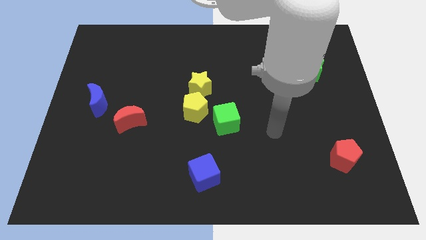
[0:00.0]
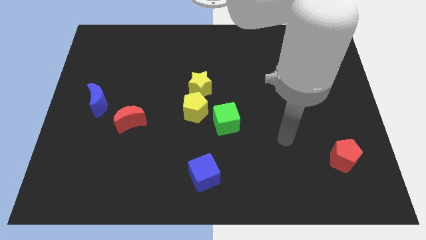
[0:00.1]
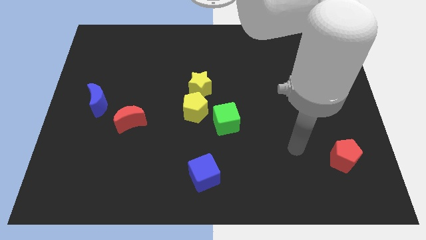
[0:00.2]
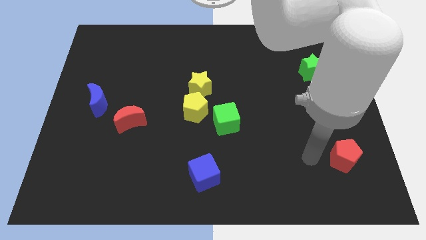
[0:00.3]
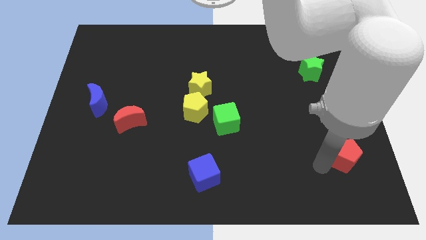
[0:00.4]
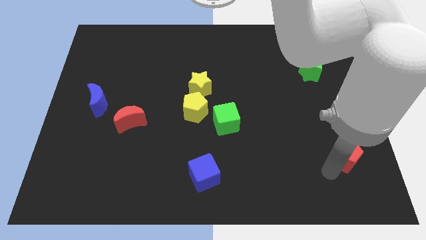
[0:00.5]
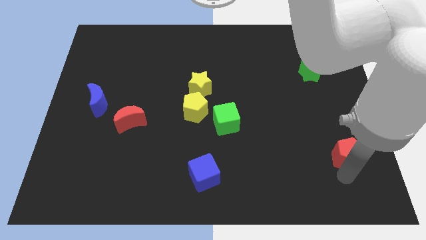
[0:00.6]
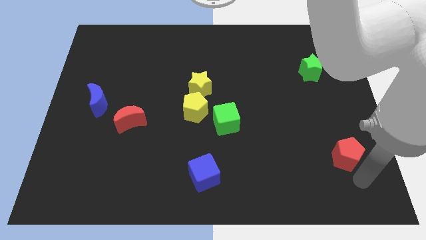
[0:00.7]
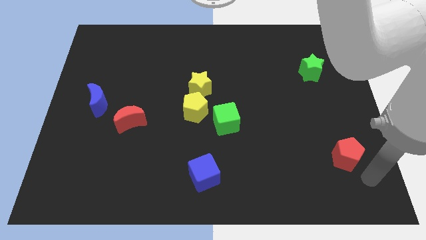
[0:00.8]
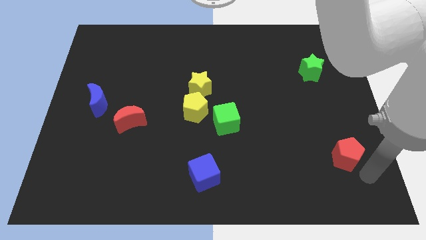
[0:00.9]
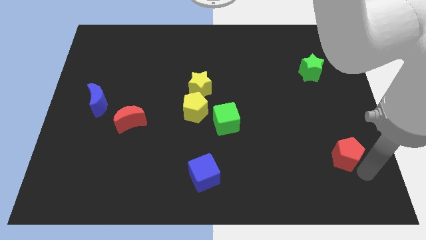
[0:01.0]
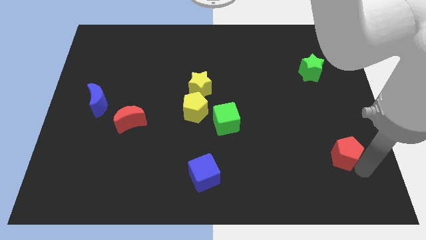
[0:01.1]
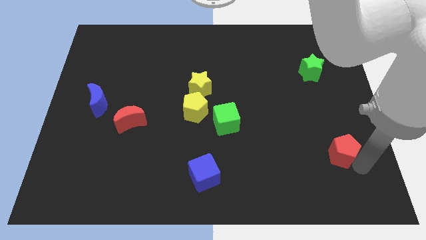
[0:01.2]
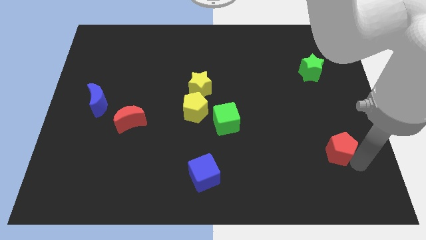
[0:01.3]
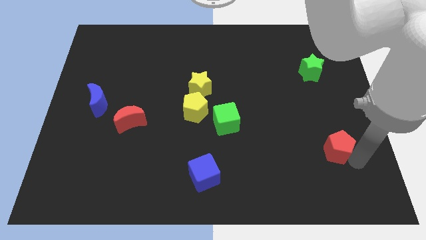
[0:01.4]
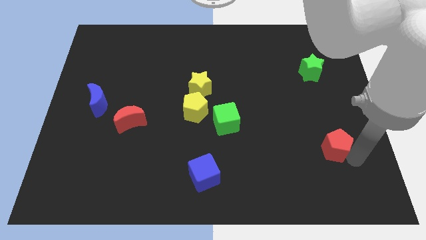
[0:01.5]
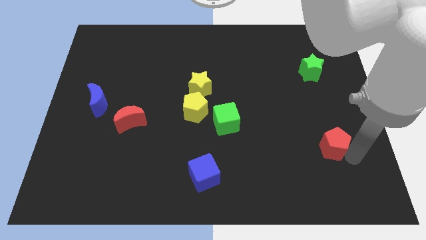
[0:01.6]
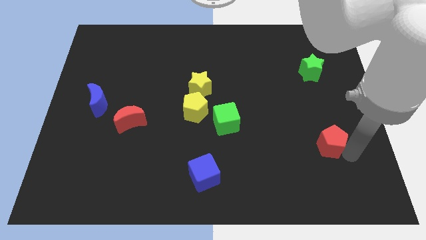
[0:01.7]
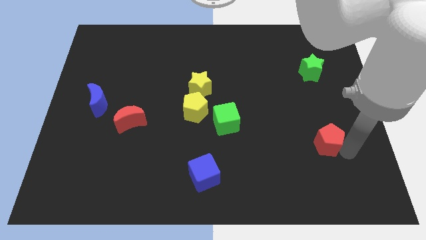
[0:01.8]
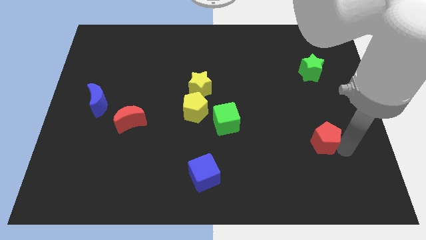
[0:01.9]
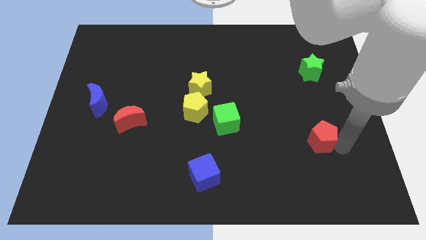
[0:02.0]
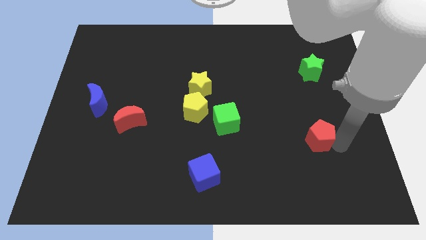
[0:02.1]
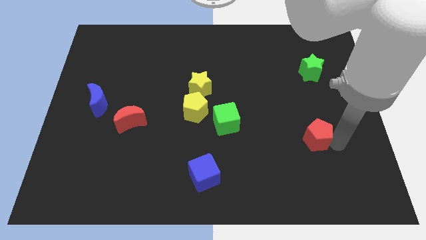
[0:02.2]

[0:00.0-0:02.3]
push the red pentagon slightly diagonally upwards and to the left

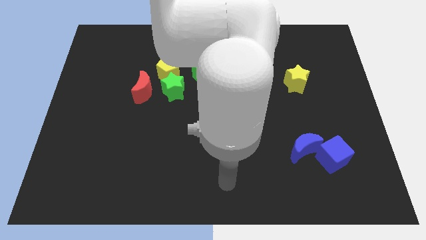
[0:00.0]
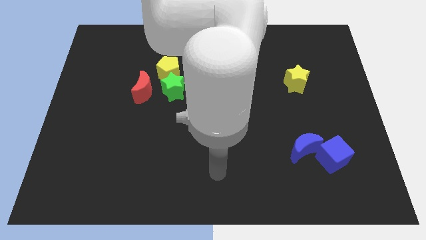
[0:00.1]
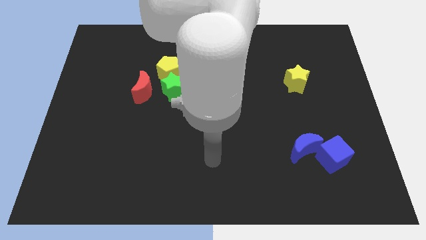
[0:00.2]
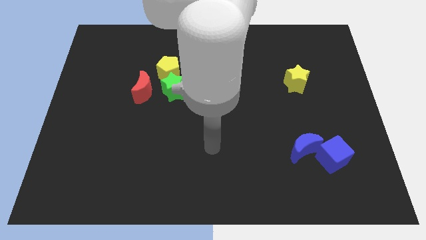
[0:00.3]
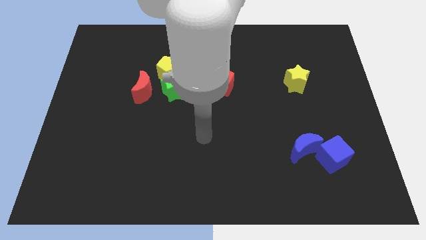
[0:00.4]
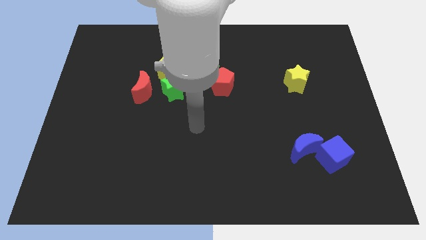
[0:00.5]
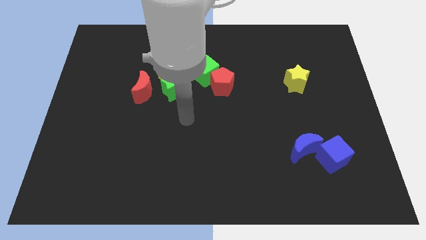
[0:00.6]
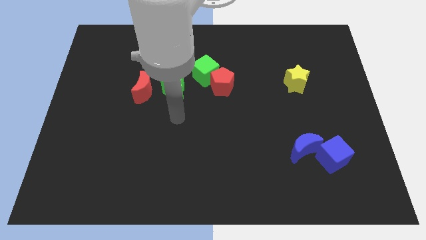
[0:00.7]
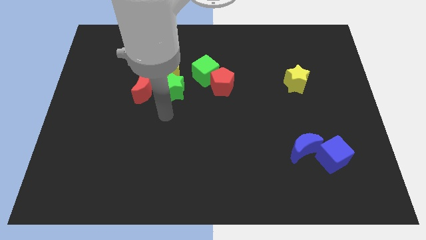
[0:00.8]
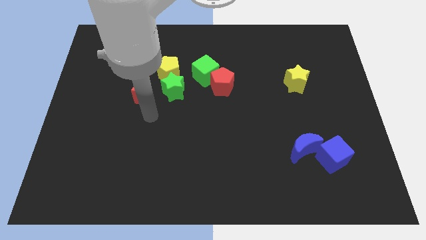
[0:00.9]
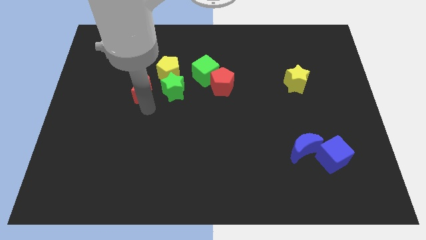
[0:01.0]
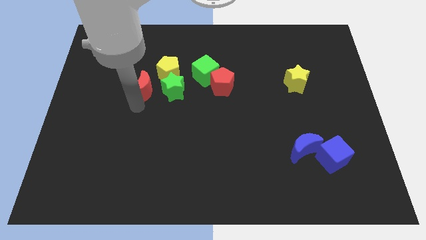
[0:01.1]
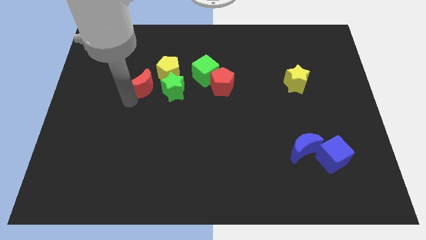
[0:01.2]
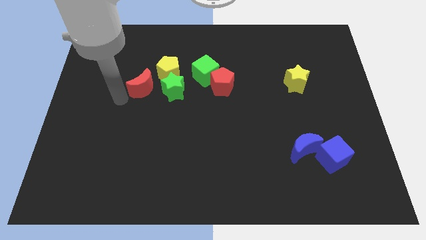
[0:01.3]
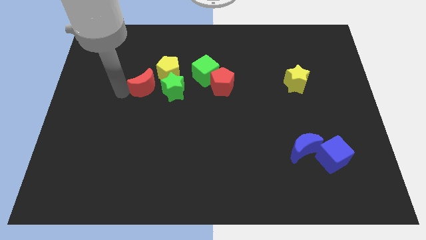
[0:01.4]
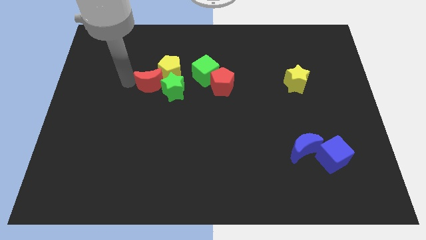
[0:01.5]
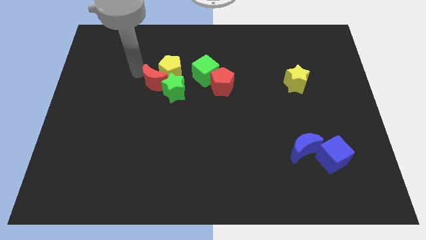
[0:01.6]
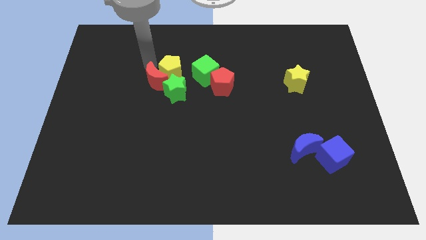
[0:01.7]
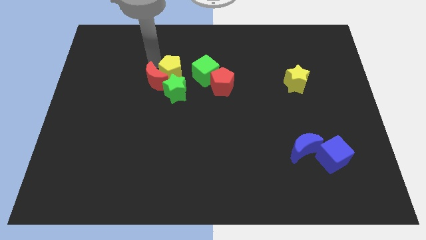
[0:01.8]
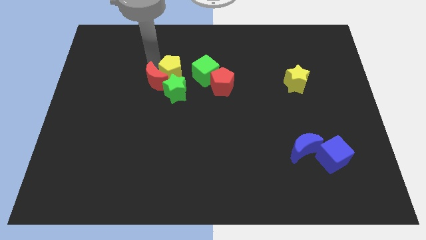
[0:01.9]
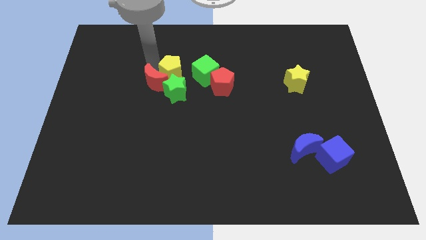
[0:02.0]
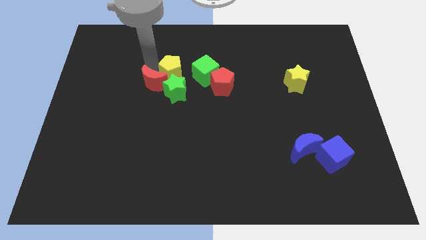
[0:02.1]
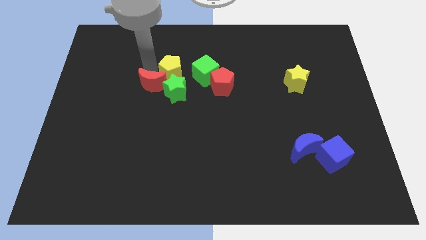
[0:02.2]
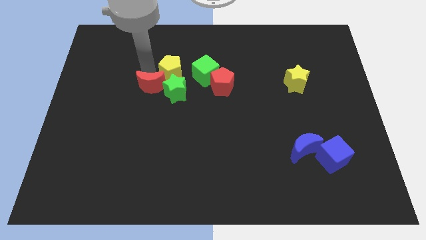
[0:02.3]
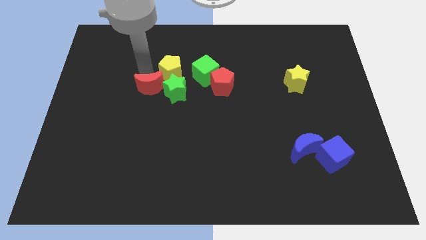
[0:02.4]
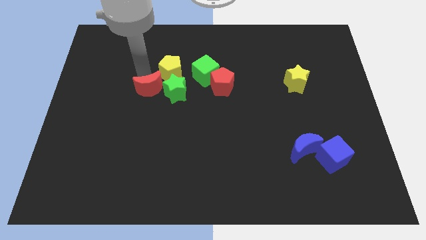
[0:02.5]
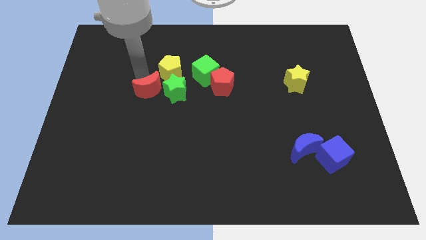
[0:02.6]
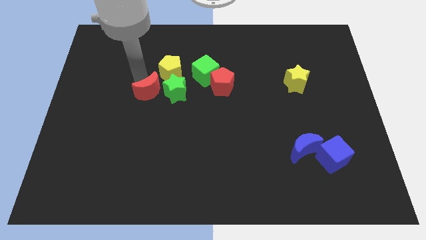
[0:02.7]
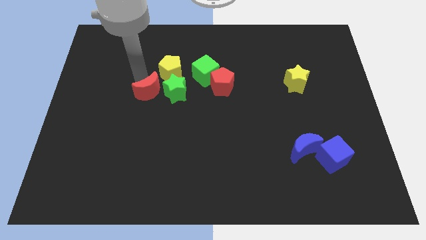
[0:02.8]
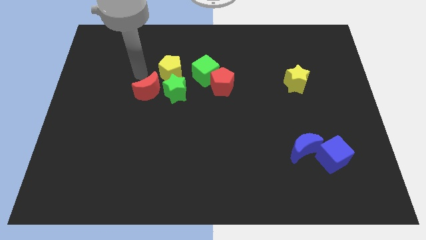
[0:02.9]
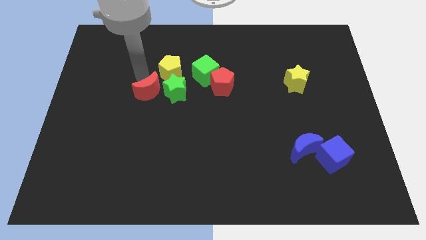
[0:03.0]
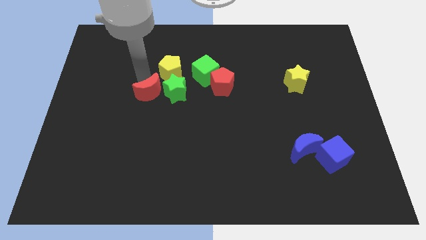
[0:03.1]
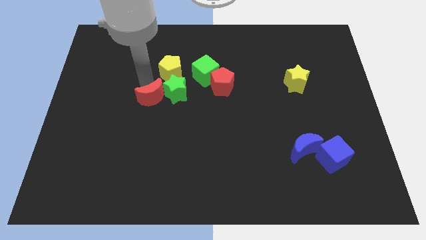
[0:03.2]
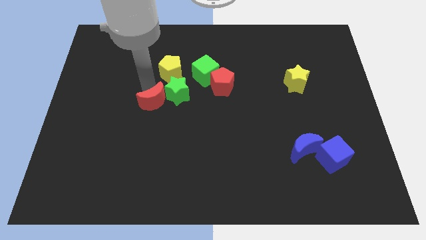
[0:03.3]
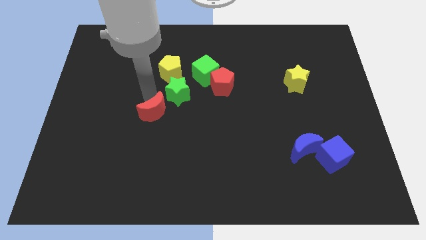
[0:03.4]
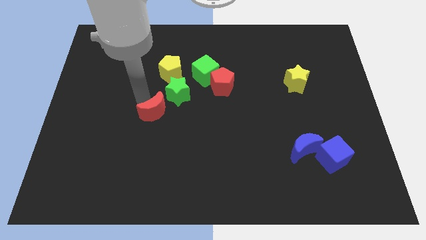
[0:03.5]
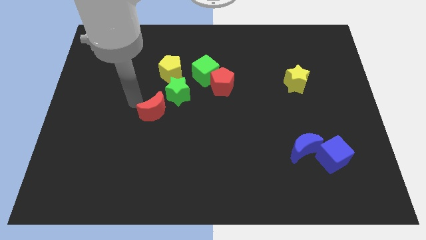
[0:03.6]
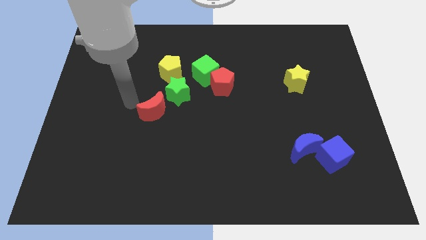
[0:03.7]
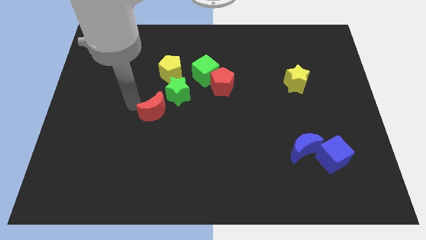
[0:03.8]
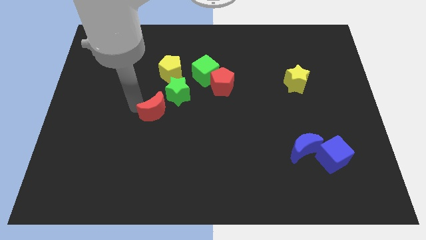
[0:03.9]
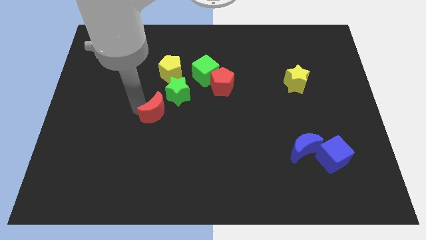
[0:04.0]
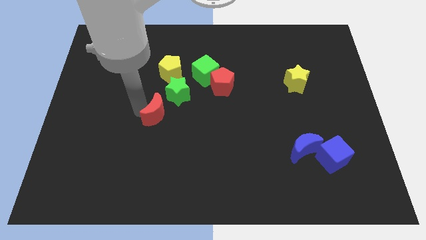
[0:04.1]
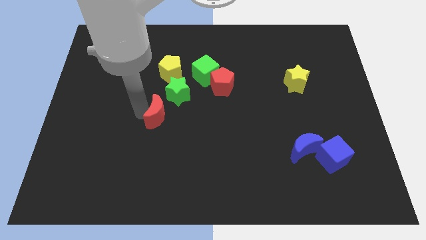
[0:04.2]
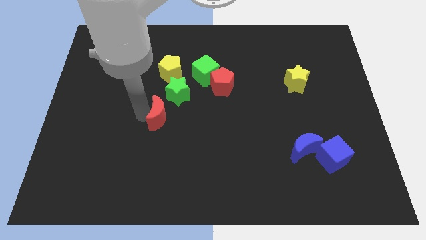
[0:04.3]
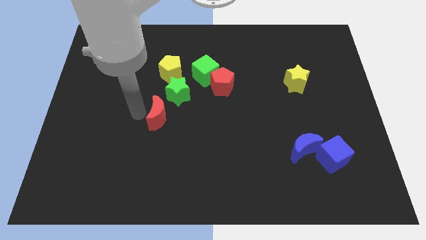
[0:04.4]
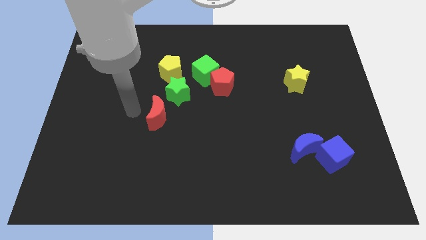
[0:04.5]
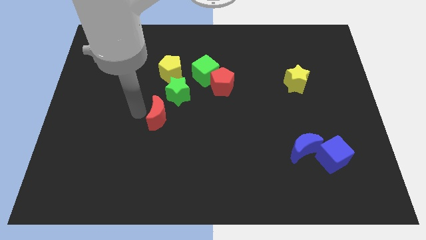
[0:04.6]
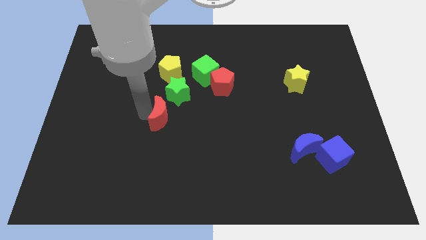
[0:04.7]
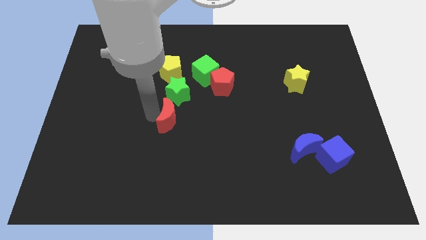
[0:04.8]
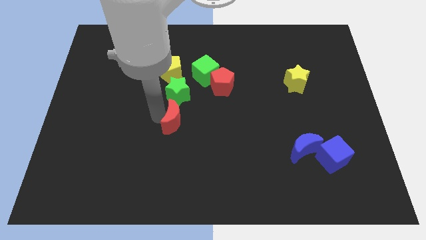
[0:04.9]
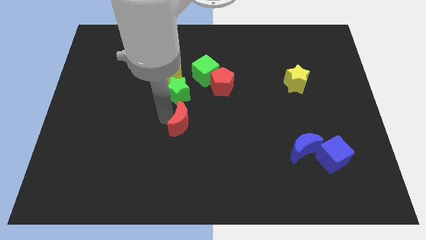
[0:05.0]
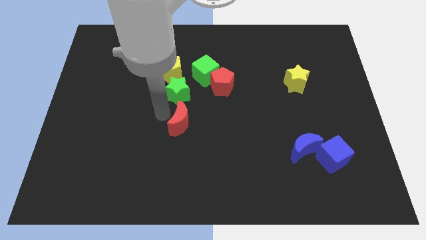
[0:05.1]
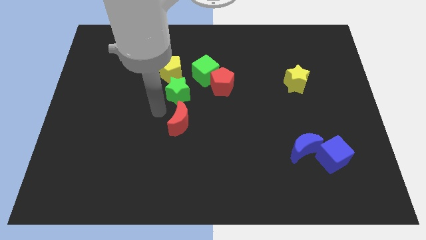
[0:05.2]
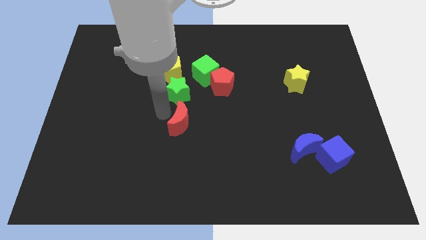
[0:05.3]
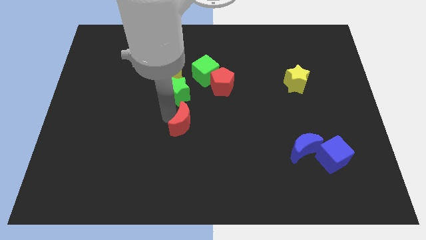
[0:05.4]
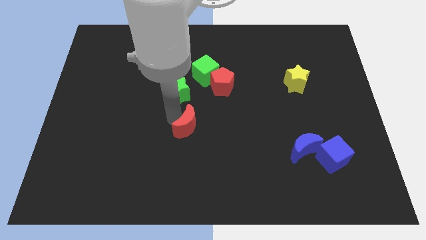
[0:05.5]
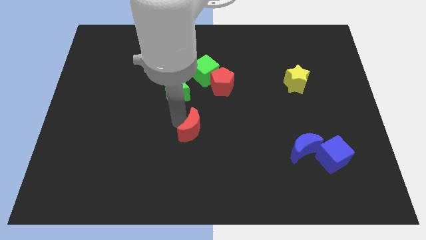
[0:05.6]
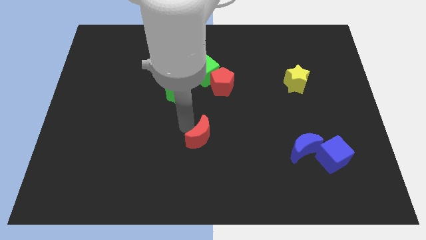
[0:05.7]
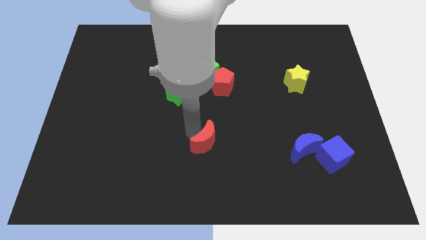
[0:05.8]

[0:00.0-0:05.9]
slide the red moon downwards and to the right diagonally

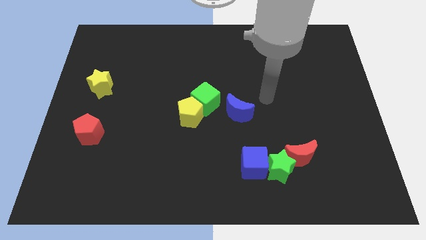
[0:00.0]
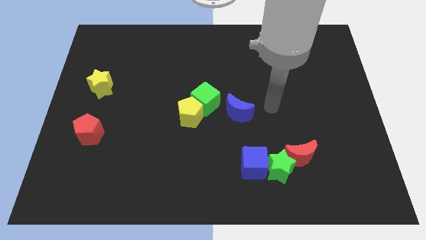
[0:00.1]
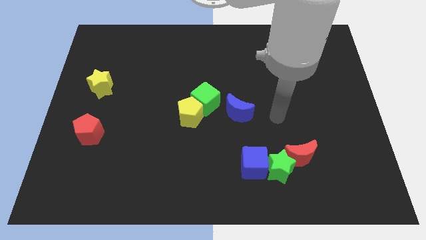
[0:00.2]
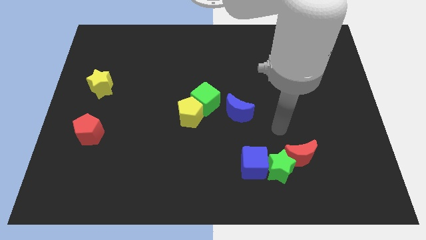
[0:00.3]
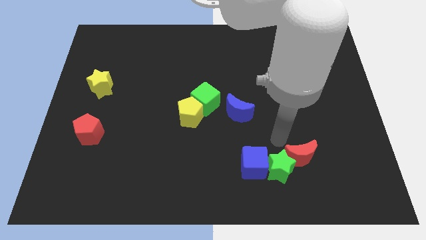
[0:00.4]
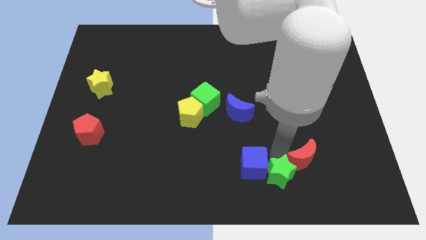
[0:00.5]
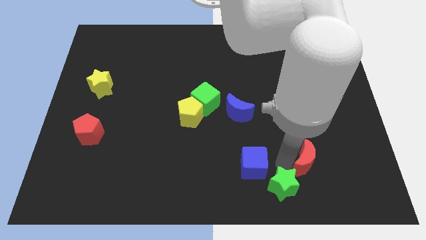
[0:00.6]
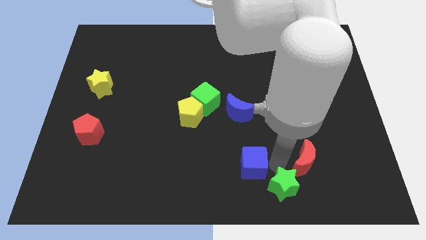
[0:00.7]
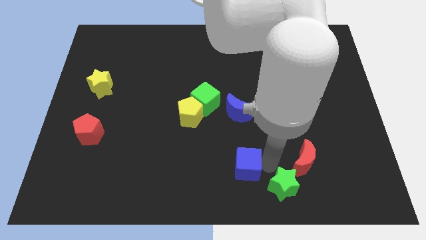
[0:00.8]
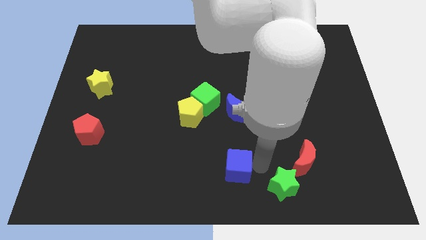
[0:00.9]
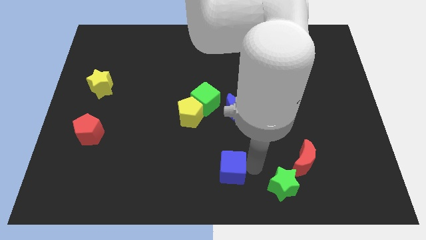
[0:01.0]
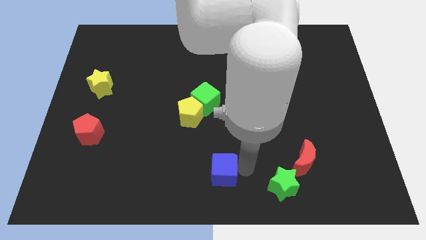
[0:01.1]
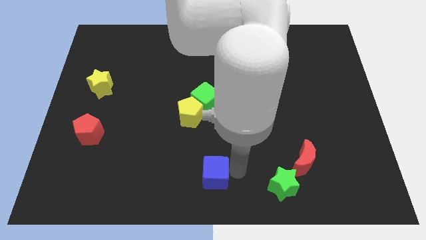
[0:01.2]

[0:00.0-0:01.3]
slightly slide the blue cube left
